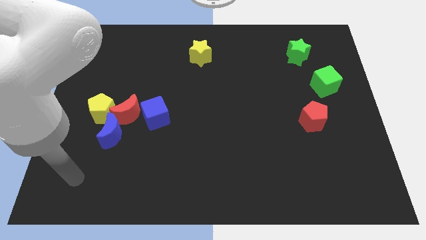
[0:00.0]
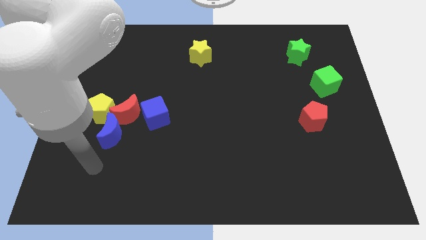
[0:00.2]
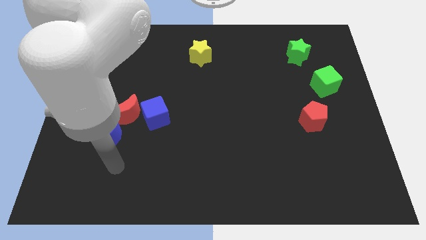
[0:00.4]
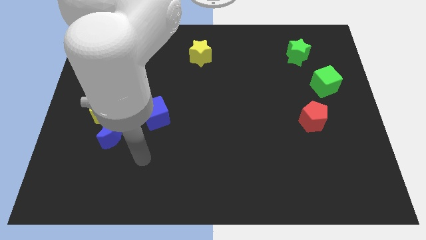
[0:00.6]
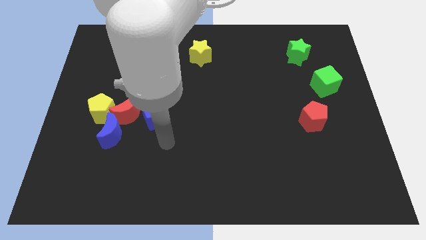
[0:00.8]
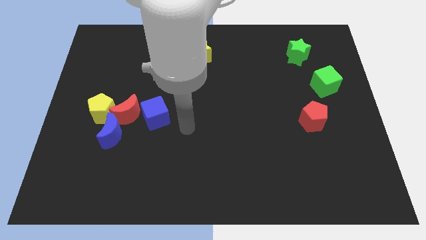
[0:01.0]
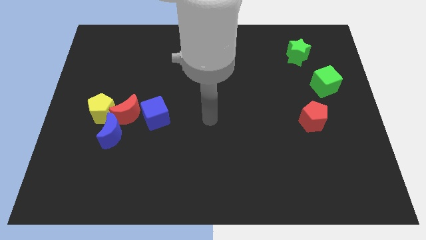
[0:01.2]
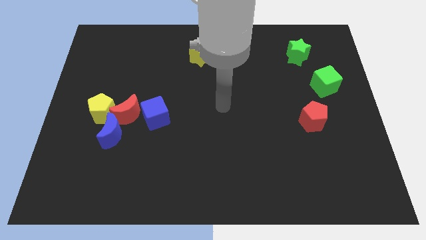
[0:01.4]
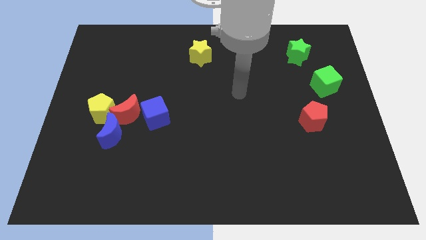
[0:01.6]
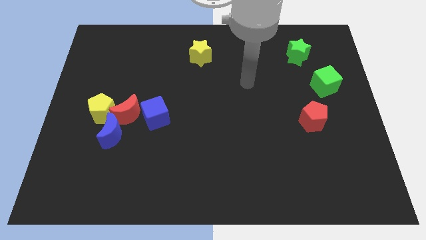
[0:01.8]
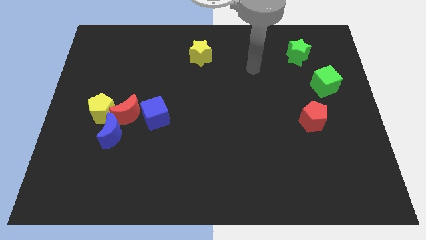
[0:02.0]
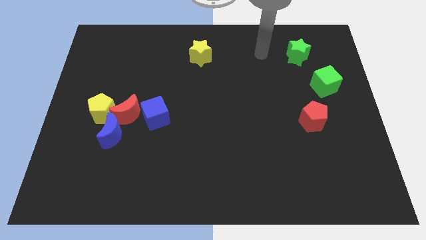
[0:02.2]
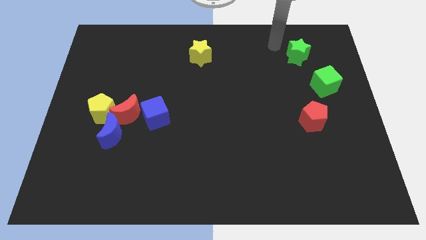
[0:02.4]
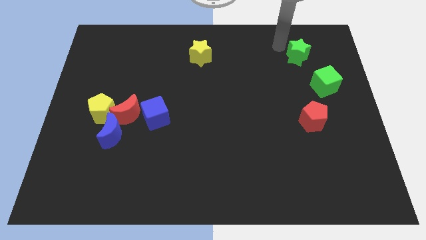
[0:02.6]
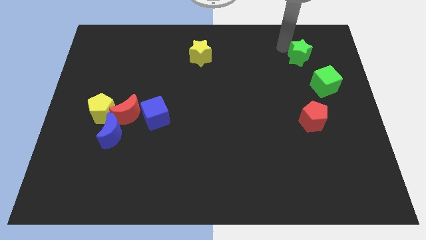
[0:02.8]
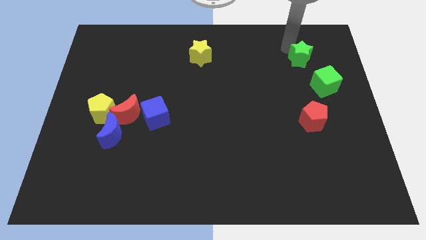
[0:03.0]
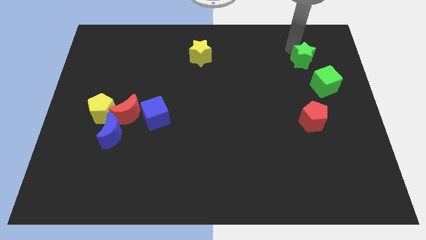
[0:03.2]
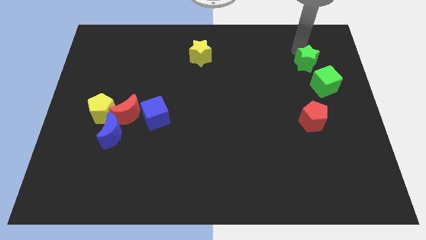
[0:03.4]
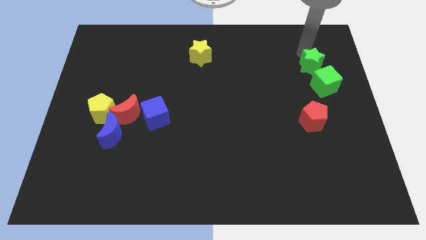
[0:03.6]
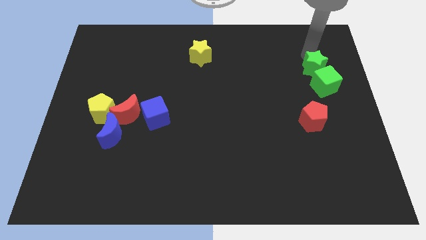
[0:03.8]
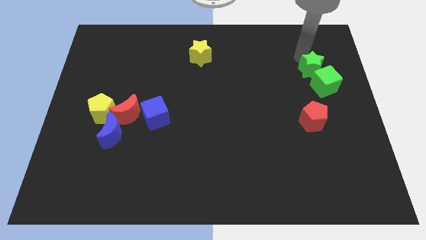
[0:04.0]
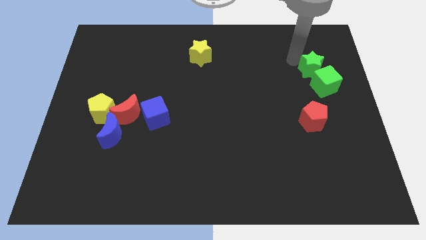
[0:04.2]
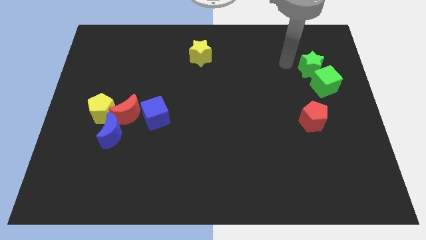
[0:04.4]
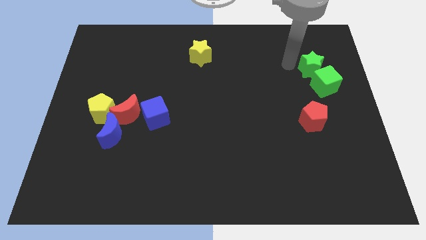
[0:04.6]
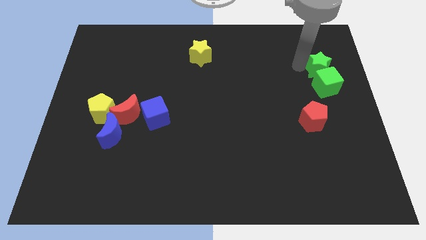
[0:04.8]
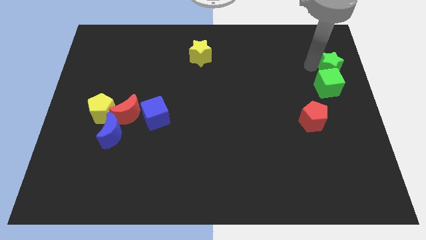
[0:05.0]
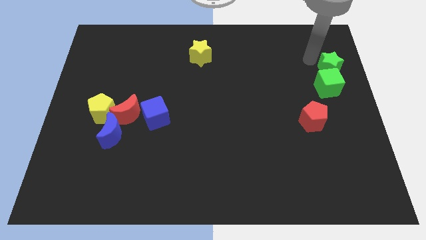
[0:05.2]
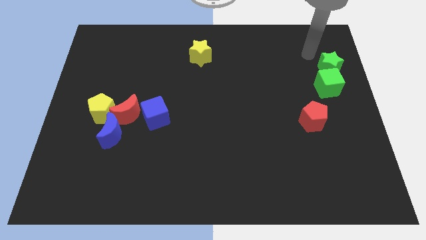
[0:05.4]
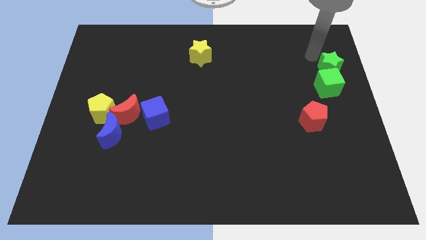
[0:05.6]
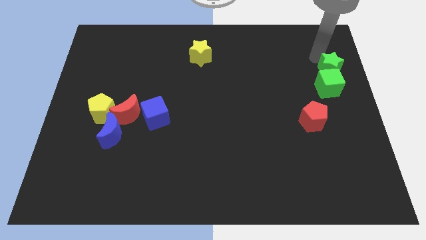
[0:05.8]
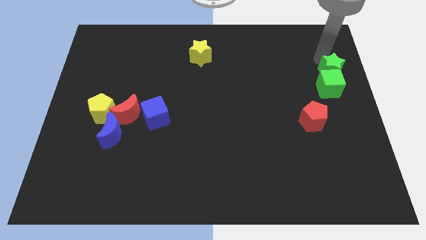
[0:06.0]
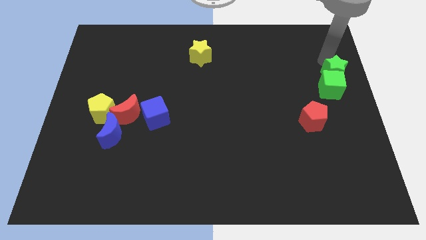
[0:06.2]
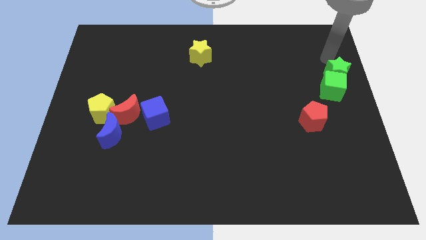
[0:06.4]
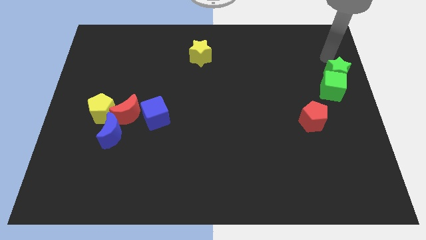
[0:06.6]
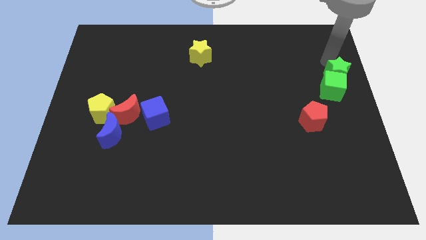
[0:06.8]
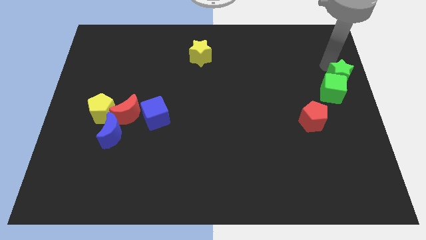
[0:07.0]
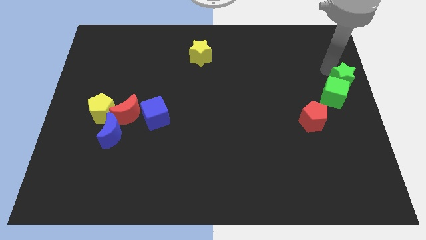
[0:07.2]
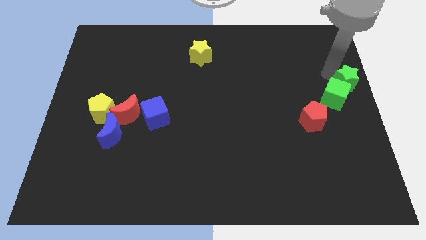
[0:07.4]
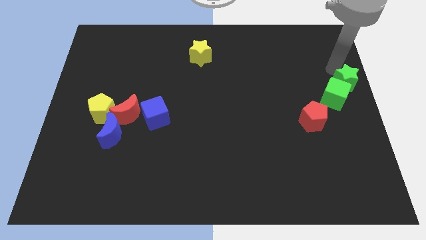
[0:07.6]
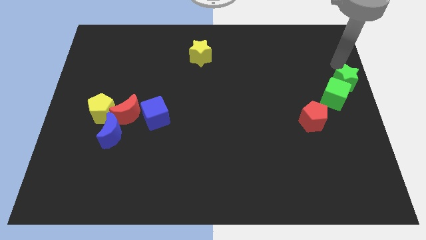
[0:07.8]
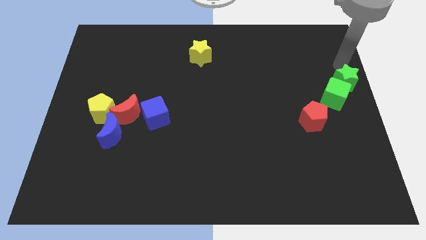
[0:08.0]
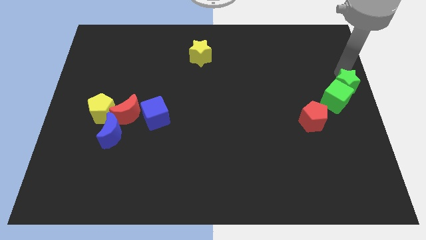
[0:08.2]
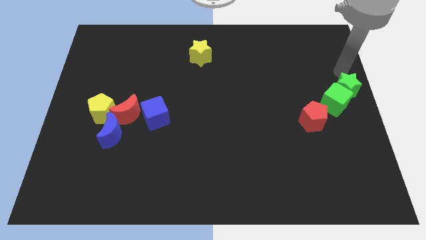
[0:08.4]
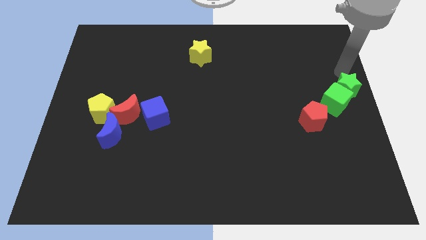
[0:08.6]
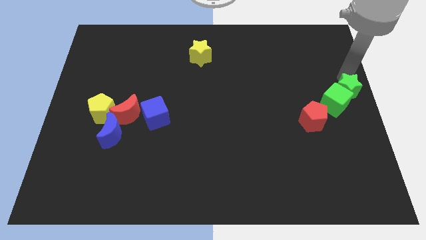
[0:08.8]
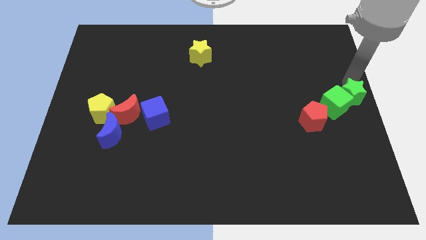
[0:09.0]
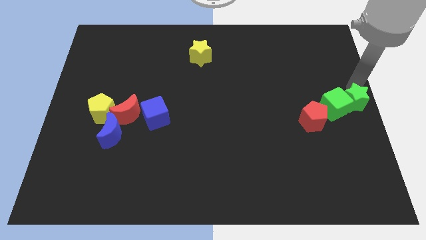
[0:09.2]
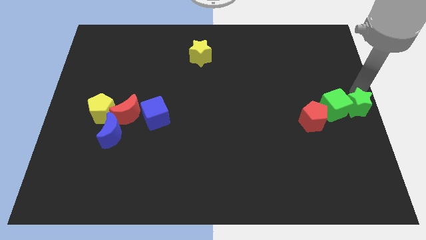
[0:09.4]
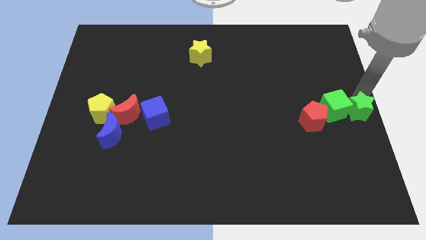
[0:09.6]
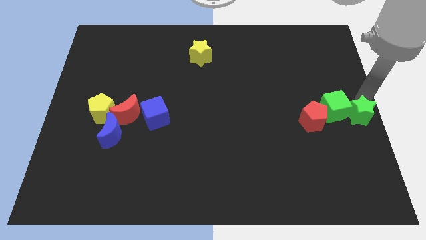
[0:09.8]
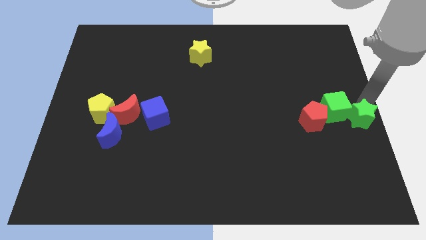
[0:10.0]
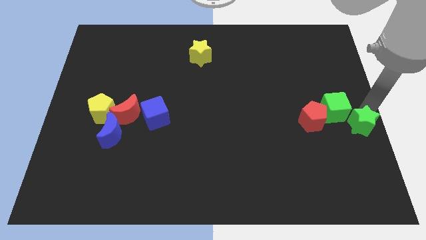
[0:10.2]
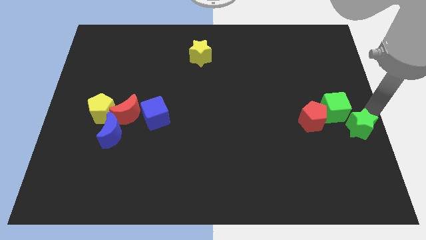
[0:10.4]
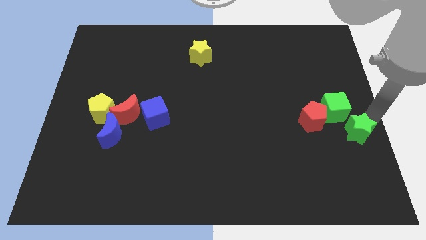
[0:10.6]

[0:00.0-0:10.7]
put the green star to the bottom right of the red pentagon

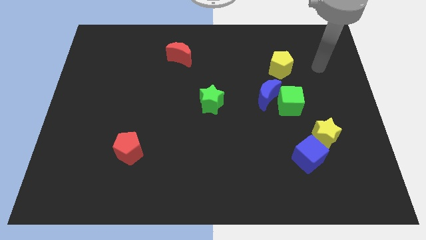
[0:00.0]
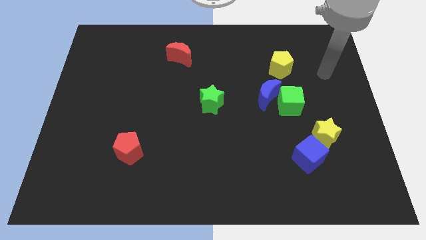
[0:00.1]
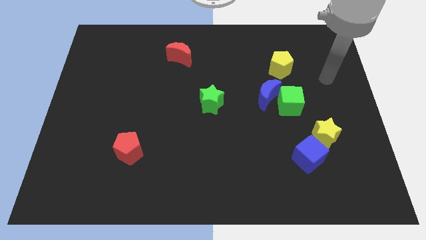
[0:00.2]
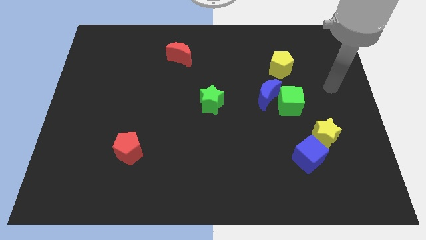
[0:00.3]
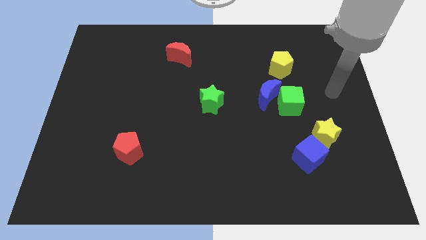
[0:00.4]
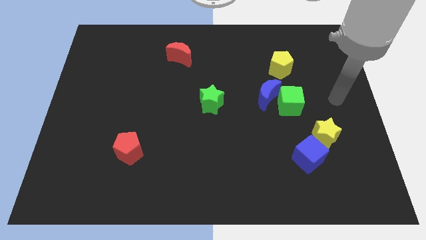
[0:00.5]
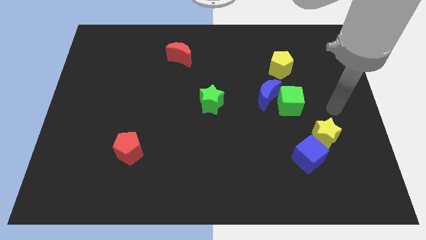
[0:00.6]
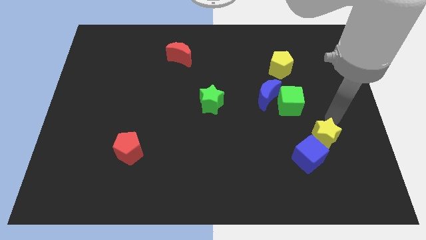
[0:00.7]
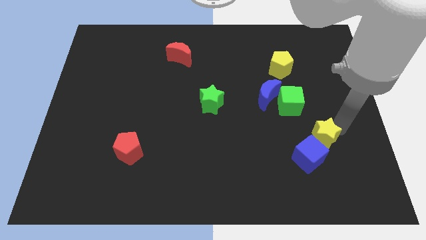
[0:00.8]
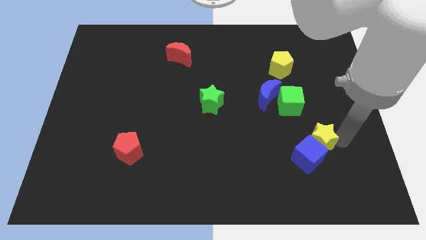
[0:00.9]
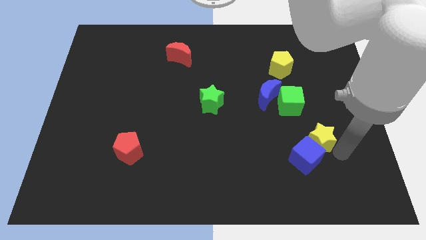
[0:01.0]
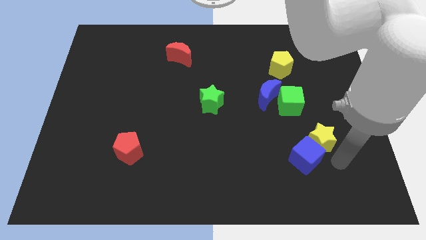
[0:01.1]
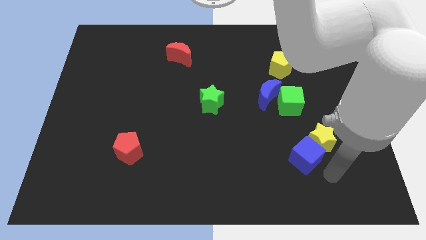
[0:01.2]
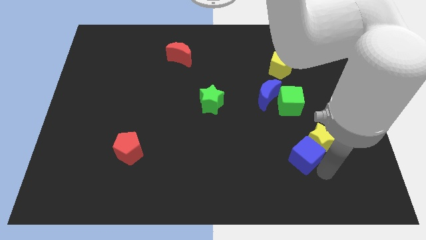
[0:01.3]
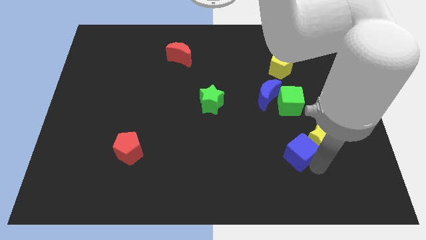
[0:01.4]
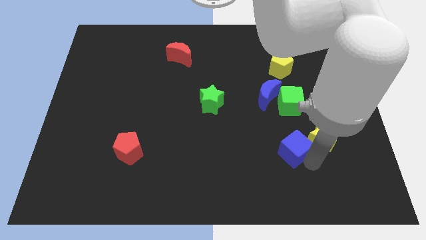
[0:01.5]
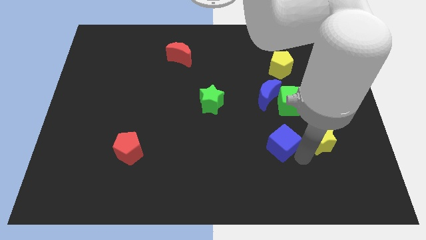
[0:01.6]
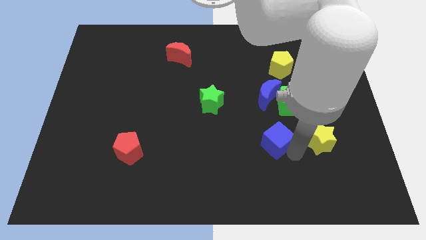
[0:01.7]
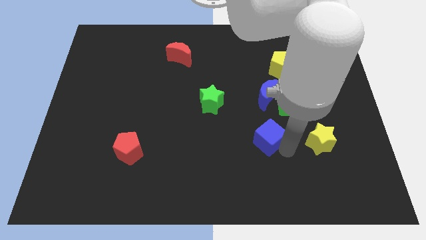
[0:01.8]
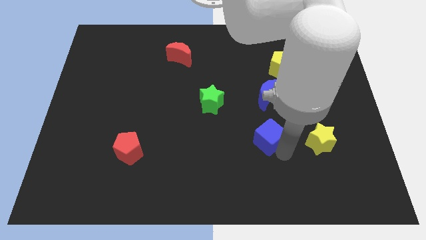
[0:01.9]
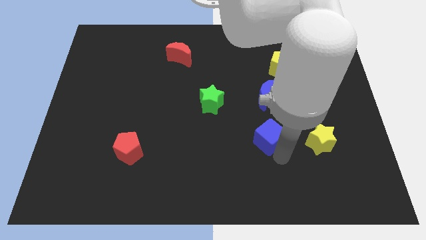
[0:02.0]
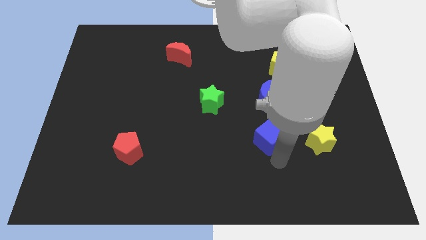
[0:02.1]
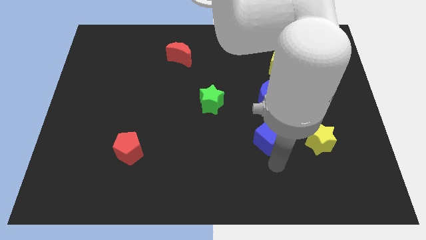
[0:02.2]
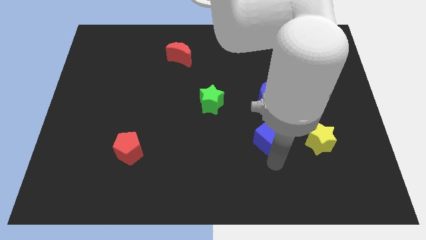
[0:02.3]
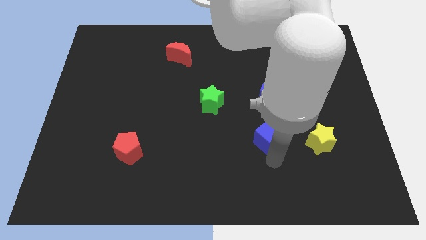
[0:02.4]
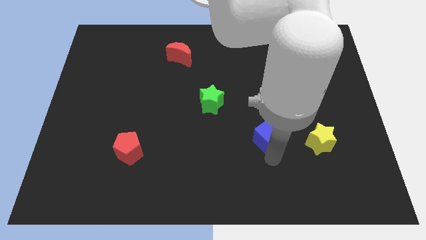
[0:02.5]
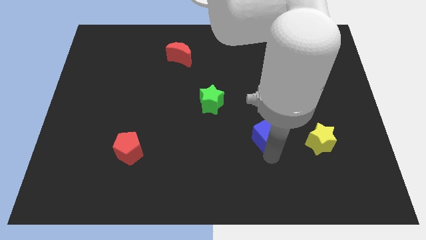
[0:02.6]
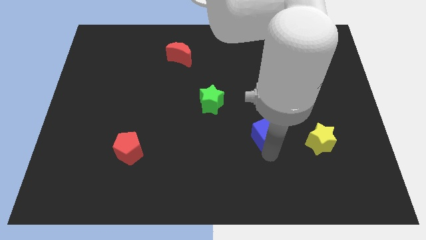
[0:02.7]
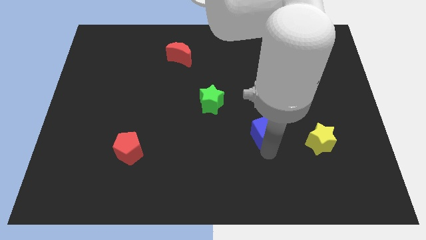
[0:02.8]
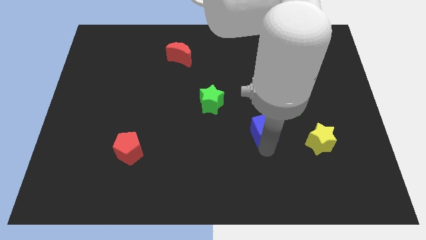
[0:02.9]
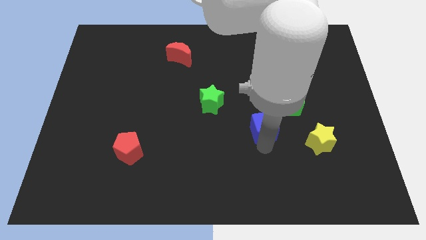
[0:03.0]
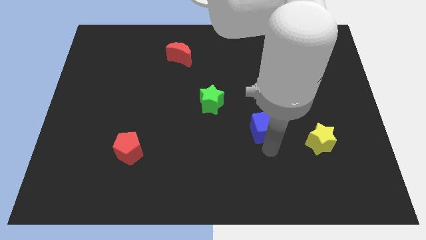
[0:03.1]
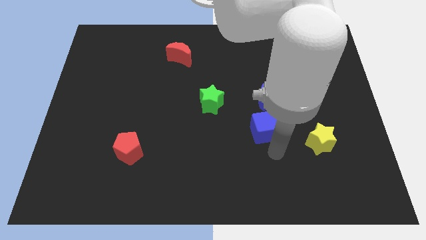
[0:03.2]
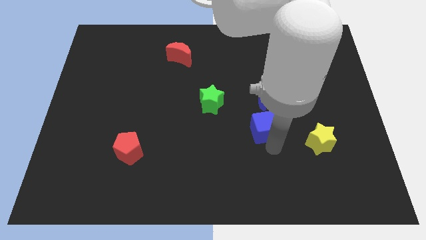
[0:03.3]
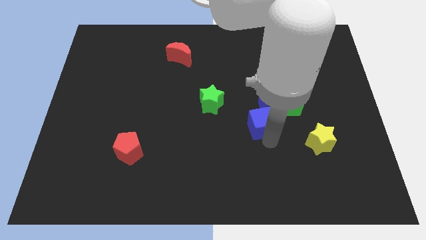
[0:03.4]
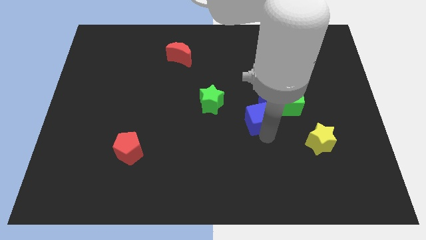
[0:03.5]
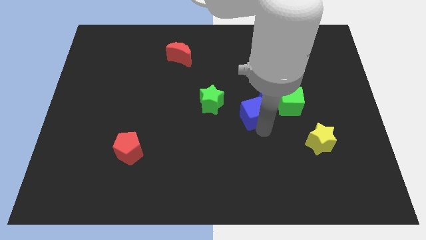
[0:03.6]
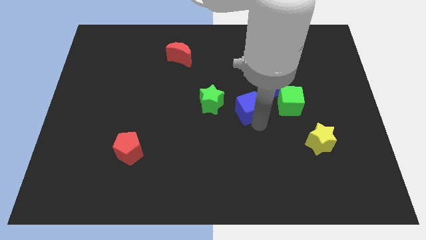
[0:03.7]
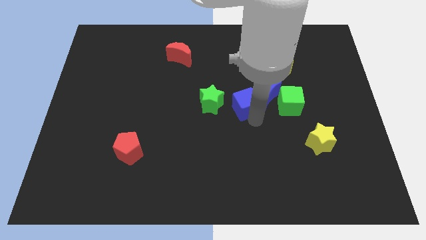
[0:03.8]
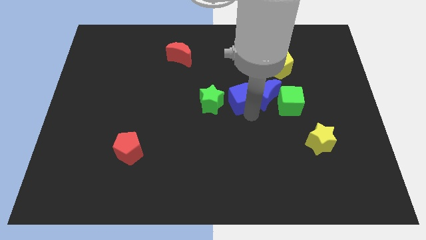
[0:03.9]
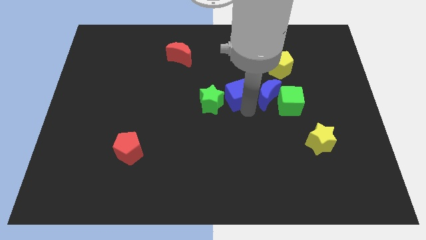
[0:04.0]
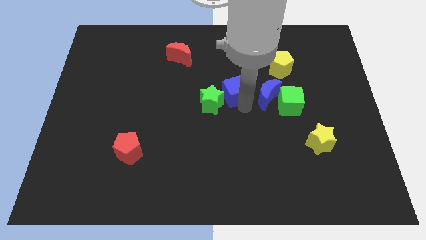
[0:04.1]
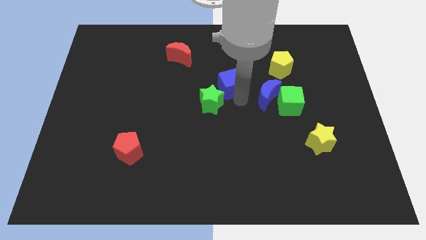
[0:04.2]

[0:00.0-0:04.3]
put the blue cube to the top of the green star
